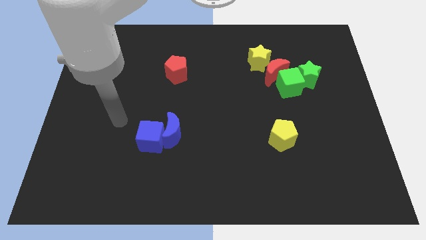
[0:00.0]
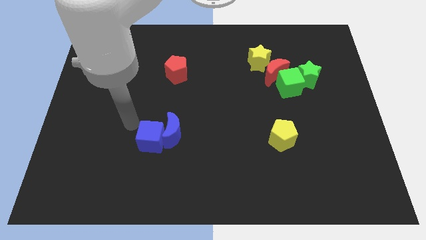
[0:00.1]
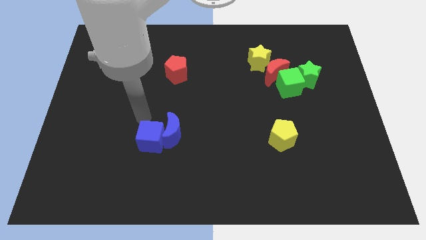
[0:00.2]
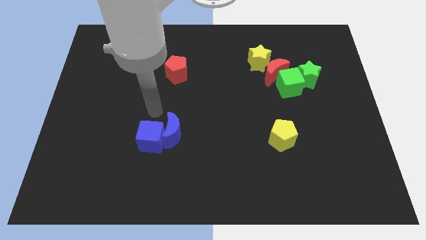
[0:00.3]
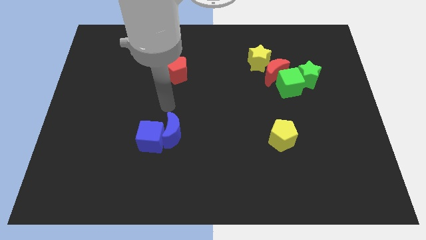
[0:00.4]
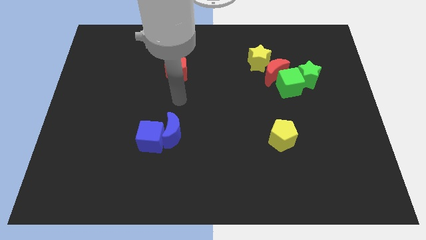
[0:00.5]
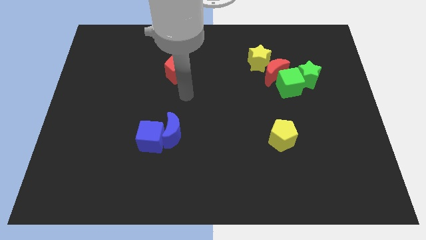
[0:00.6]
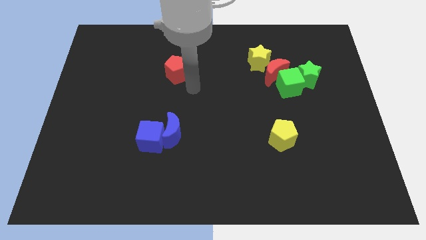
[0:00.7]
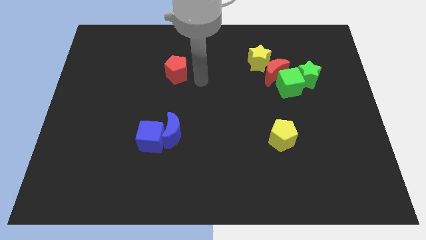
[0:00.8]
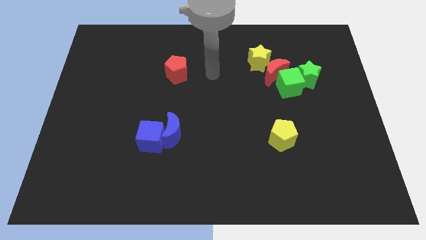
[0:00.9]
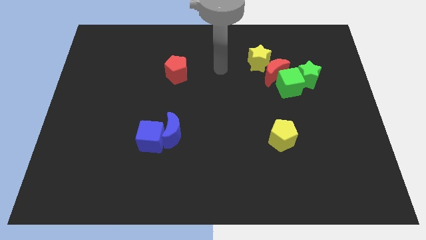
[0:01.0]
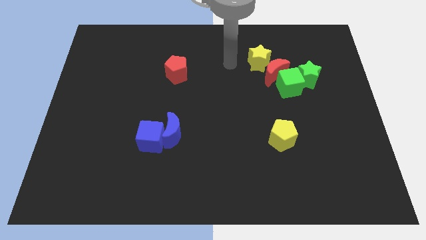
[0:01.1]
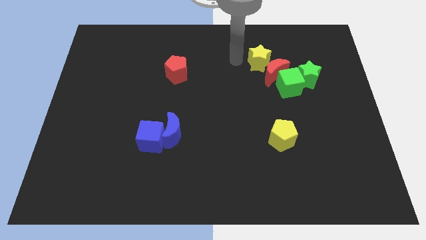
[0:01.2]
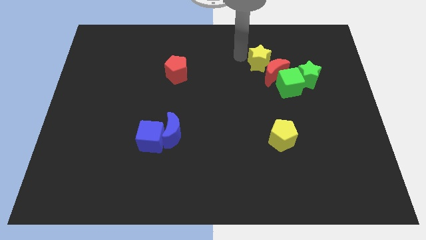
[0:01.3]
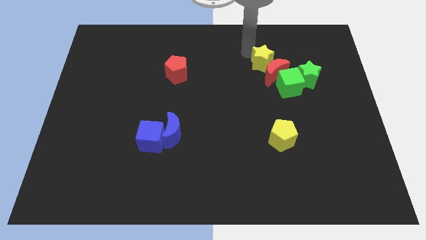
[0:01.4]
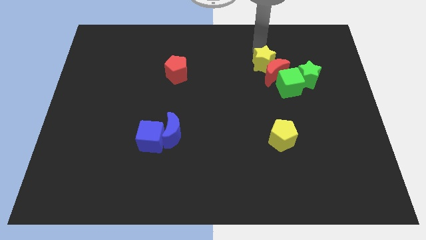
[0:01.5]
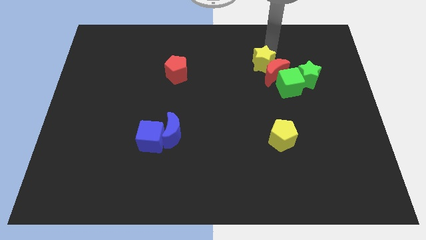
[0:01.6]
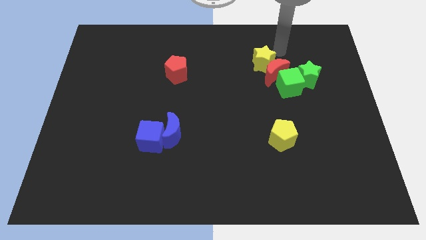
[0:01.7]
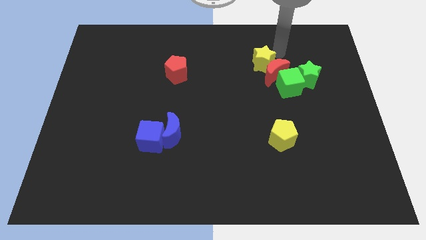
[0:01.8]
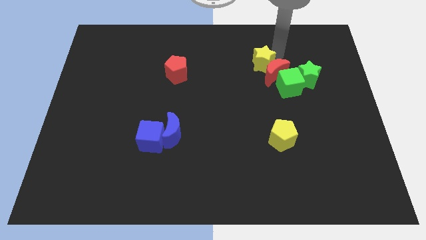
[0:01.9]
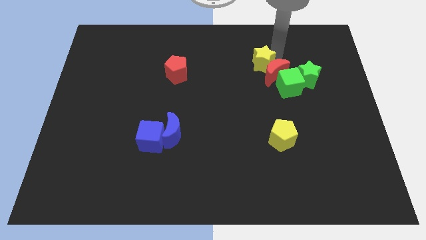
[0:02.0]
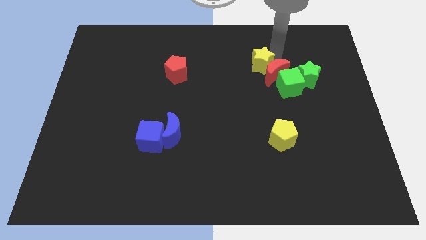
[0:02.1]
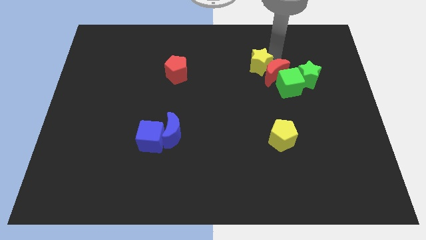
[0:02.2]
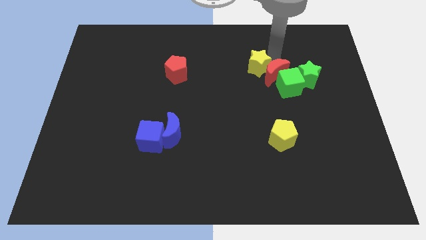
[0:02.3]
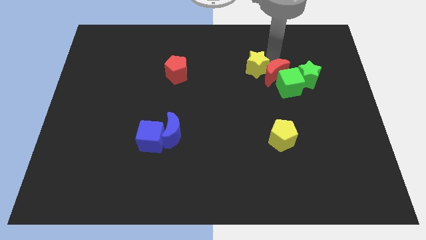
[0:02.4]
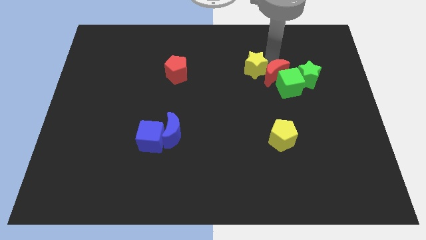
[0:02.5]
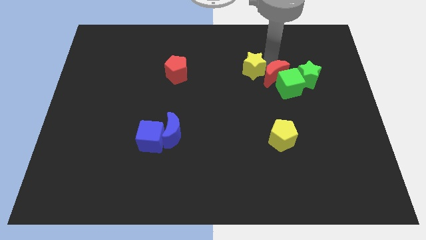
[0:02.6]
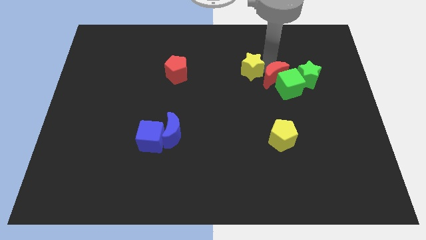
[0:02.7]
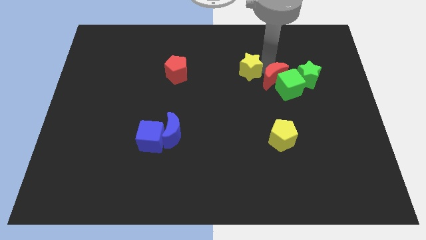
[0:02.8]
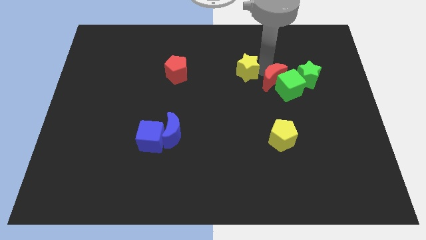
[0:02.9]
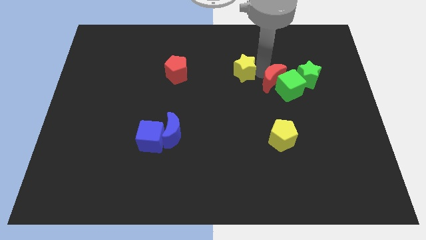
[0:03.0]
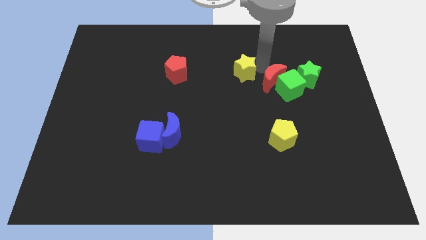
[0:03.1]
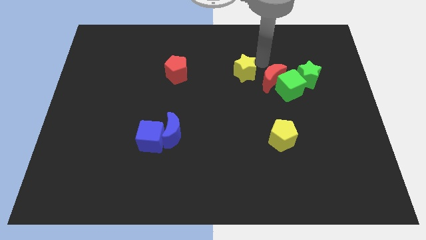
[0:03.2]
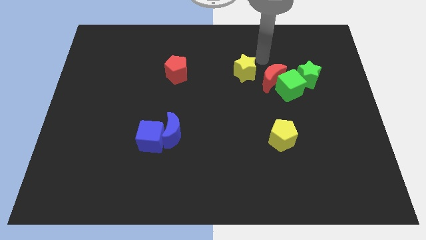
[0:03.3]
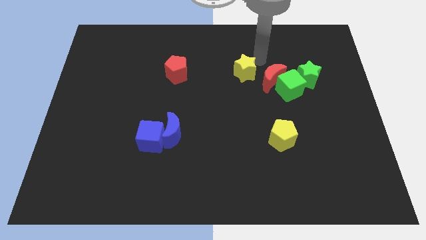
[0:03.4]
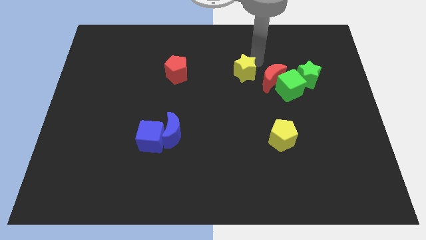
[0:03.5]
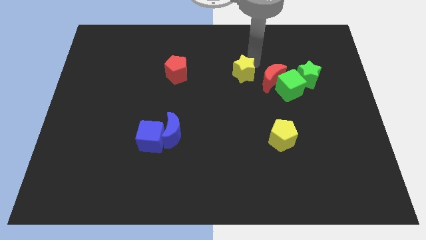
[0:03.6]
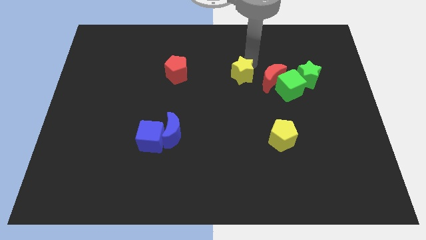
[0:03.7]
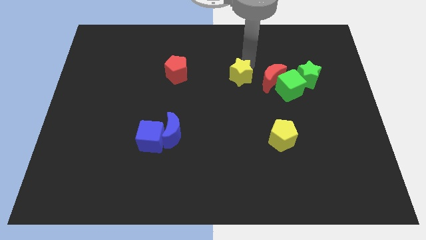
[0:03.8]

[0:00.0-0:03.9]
move the yellow star diagonally downwards and to the left a little bit

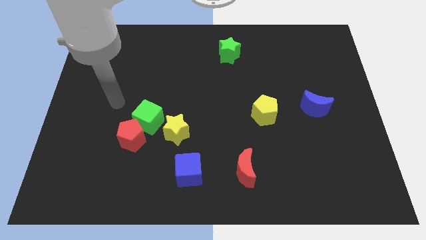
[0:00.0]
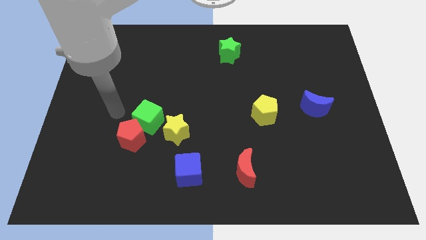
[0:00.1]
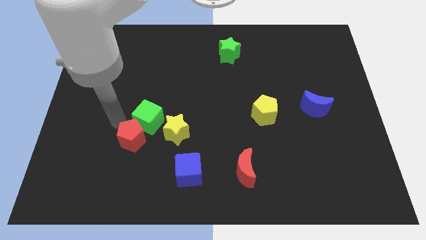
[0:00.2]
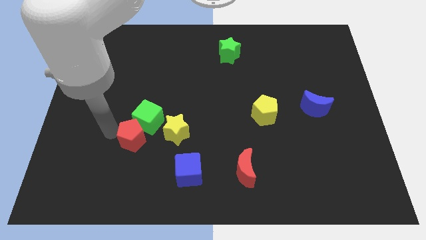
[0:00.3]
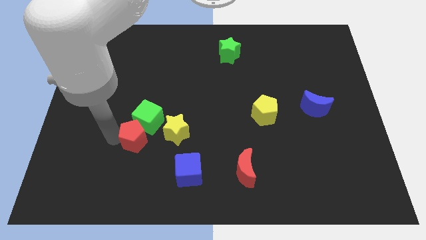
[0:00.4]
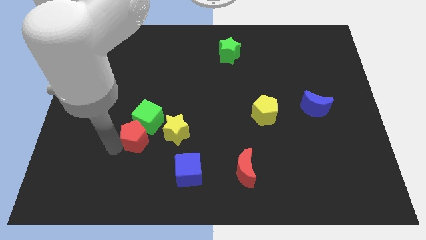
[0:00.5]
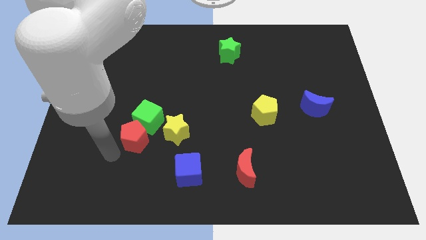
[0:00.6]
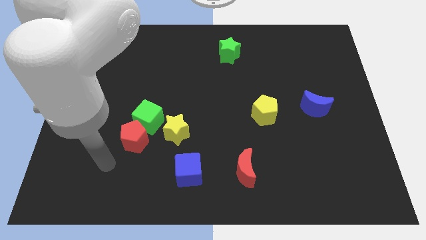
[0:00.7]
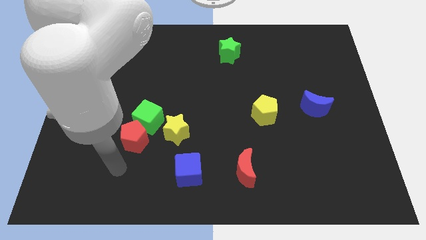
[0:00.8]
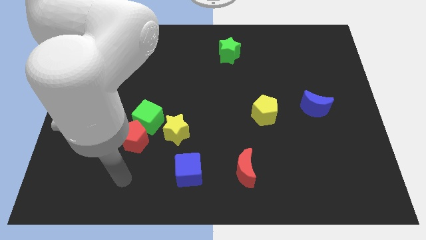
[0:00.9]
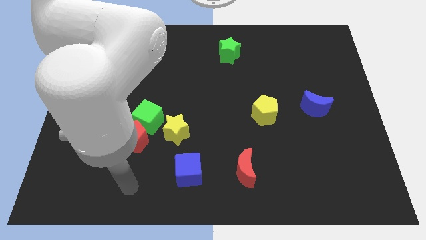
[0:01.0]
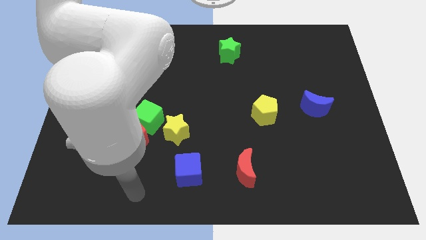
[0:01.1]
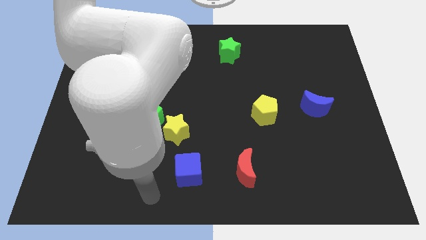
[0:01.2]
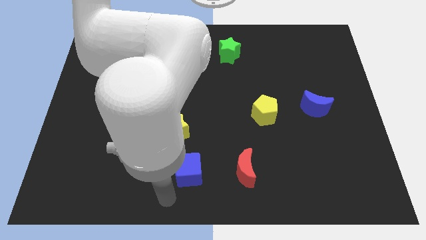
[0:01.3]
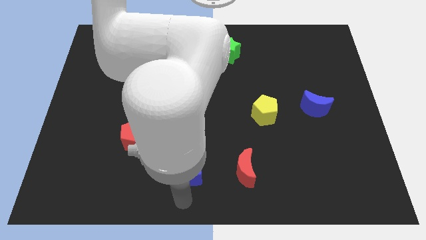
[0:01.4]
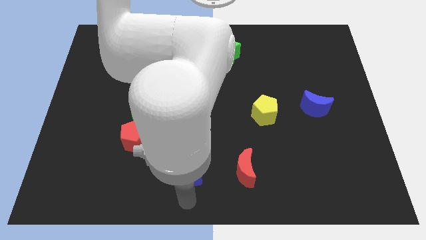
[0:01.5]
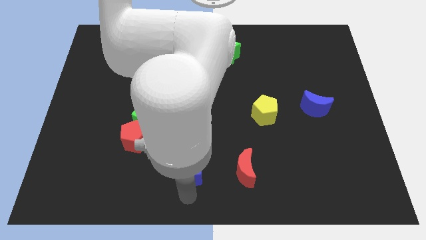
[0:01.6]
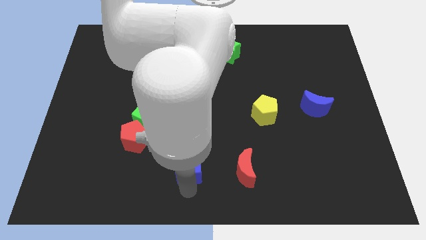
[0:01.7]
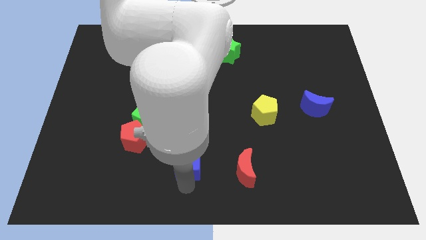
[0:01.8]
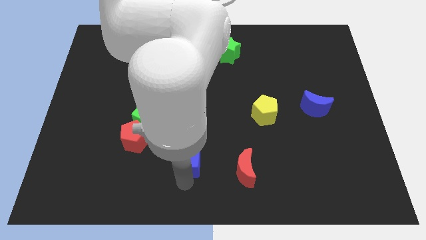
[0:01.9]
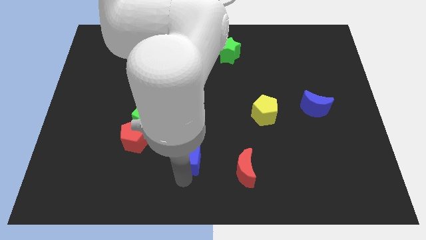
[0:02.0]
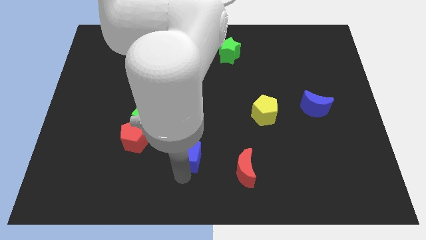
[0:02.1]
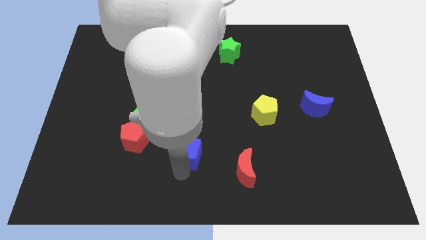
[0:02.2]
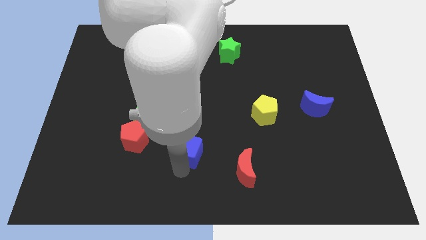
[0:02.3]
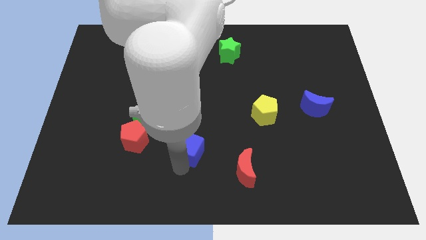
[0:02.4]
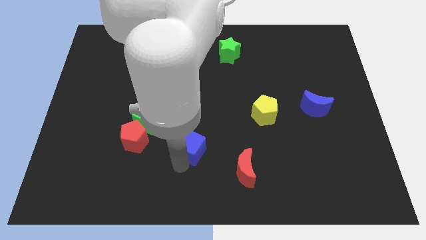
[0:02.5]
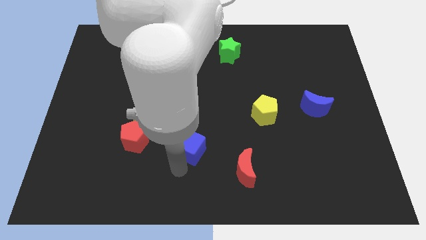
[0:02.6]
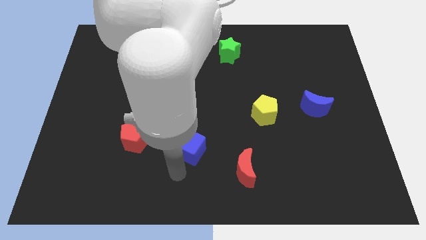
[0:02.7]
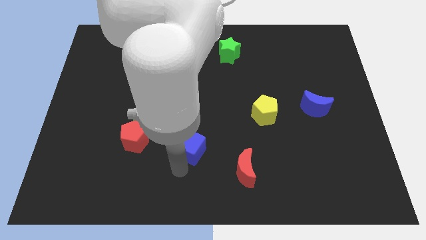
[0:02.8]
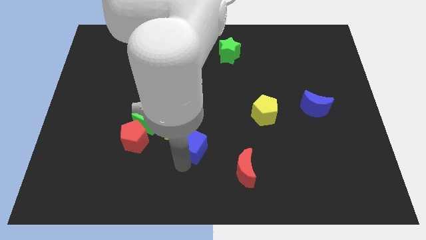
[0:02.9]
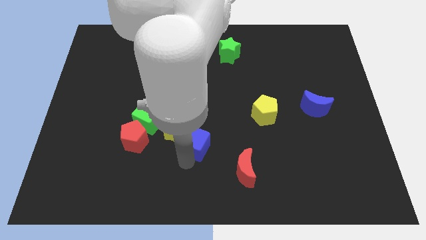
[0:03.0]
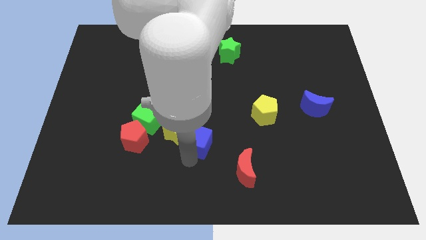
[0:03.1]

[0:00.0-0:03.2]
move the blue cube a little bit upwards

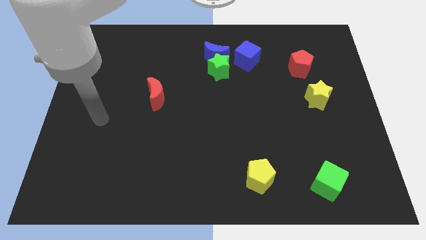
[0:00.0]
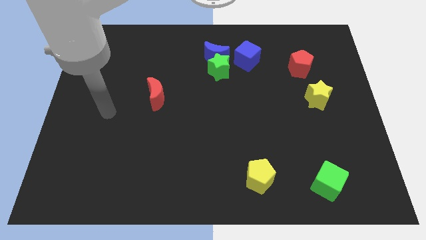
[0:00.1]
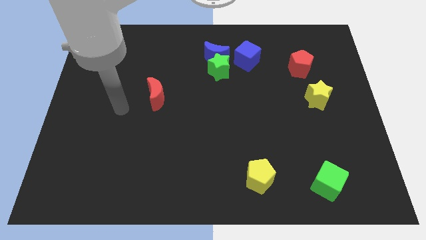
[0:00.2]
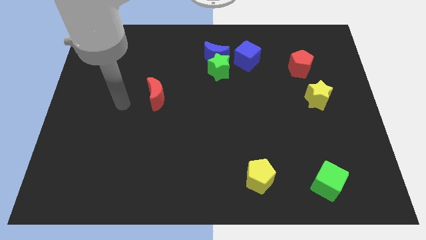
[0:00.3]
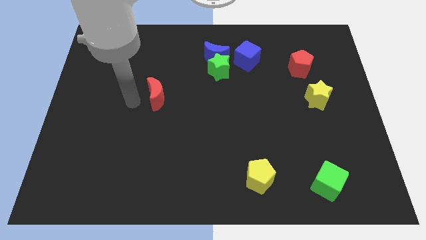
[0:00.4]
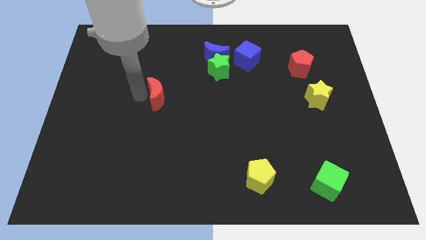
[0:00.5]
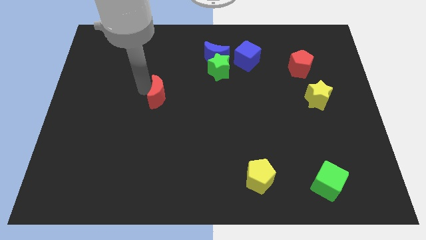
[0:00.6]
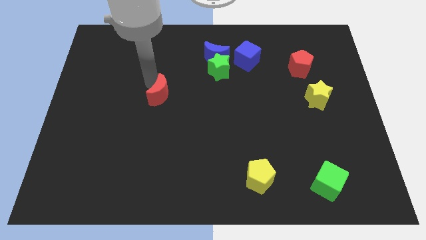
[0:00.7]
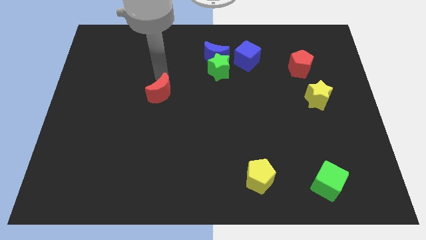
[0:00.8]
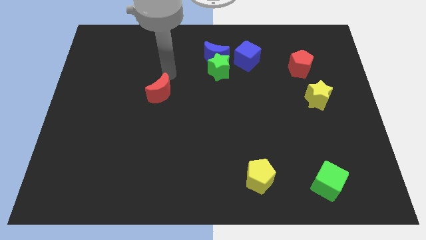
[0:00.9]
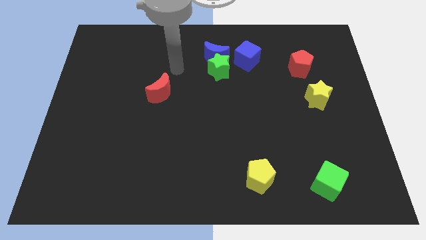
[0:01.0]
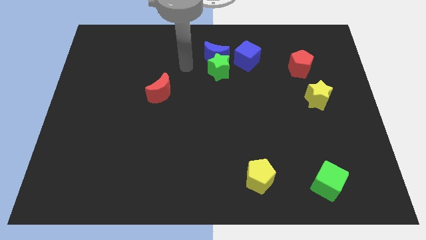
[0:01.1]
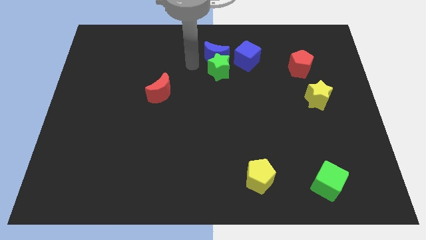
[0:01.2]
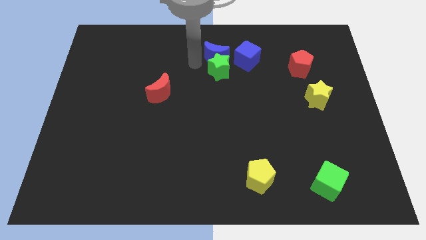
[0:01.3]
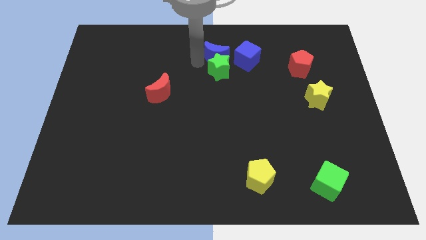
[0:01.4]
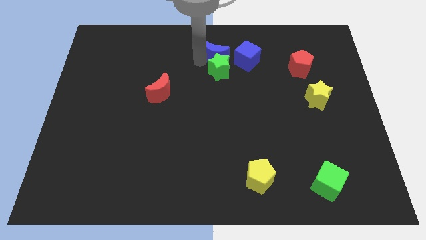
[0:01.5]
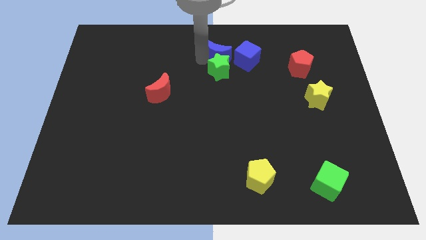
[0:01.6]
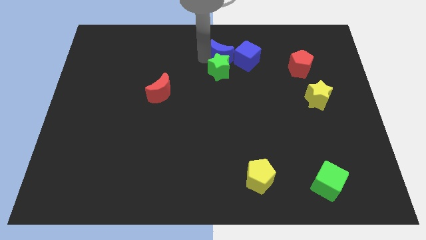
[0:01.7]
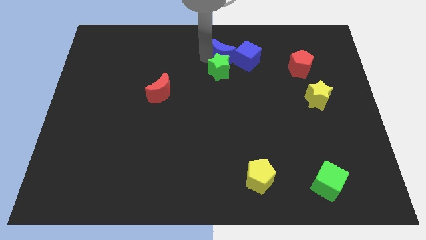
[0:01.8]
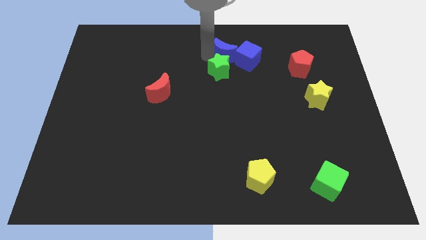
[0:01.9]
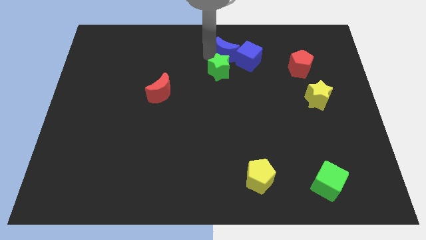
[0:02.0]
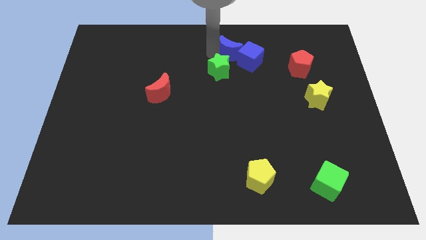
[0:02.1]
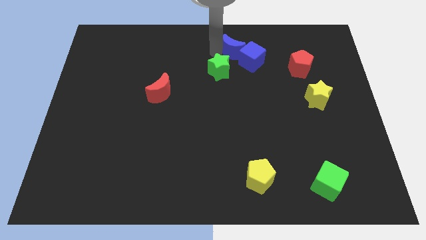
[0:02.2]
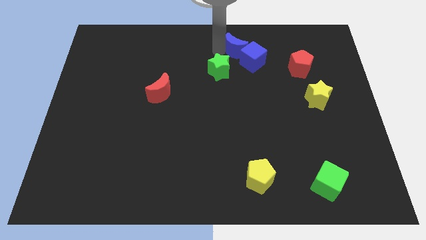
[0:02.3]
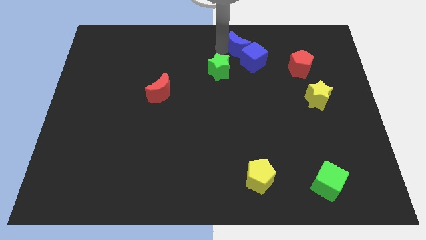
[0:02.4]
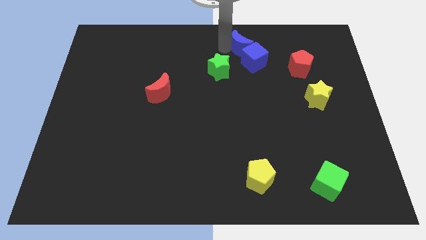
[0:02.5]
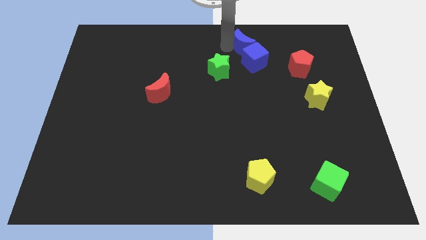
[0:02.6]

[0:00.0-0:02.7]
slide the blue moon a little to the right
